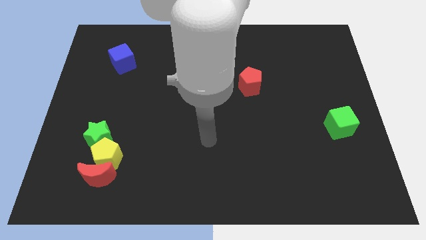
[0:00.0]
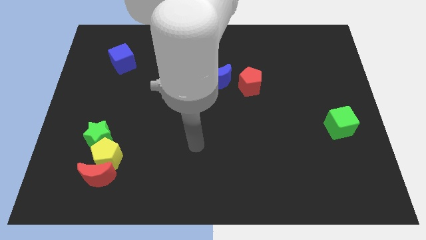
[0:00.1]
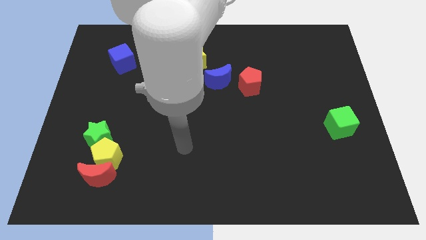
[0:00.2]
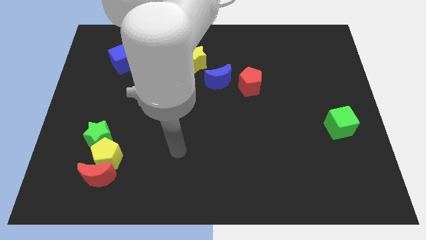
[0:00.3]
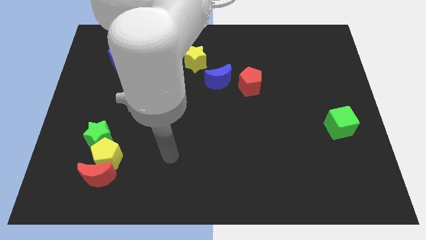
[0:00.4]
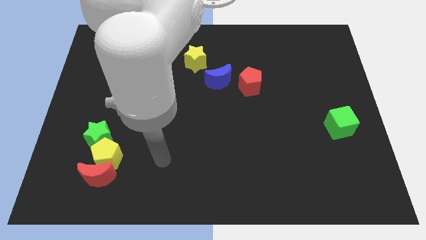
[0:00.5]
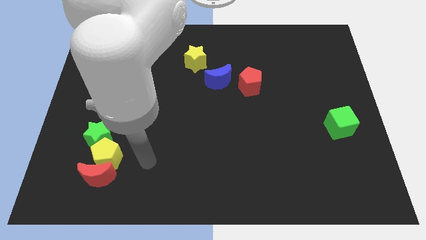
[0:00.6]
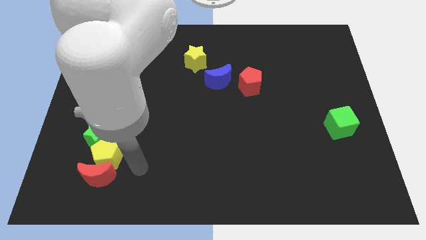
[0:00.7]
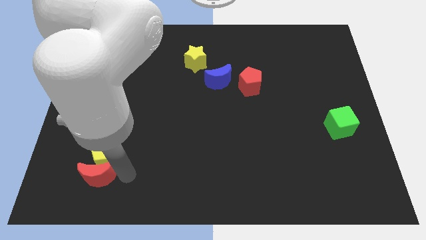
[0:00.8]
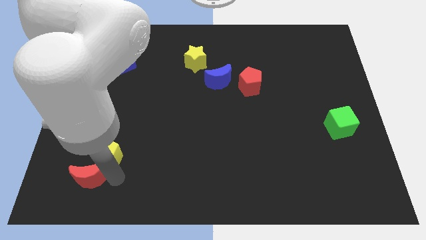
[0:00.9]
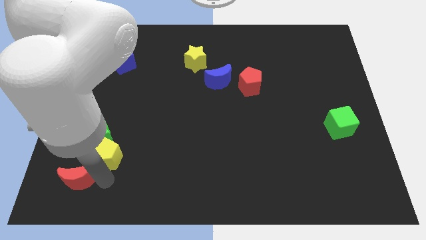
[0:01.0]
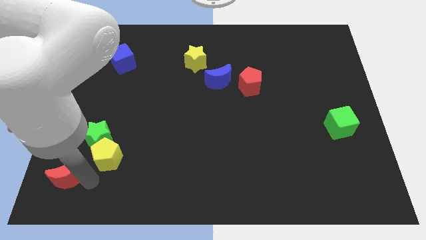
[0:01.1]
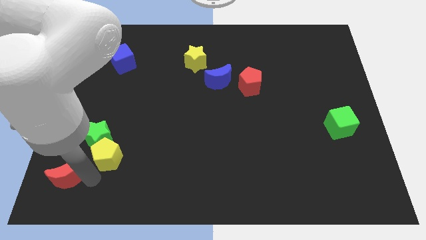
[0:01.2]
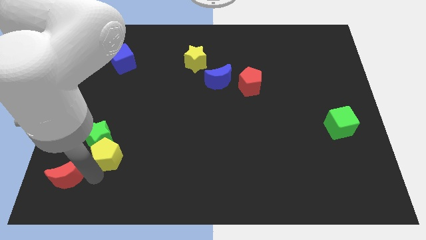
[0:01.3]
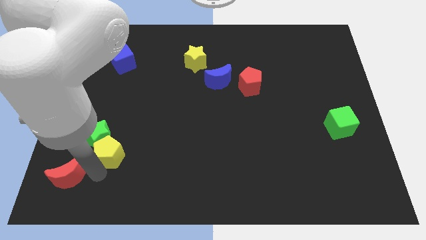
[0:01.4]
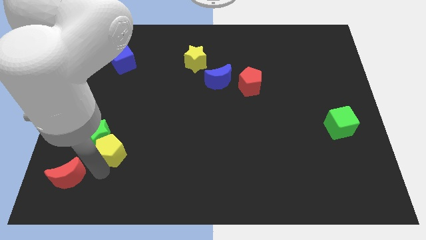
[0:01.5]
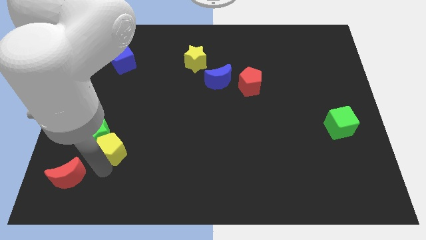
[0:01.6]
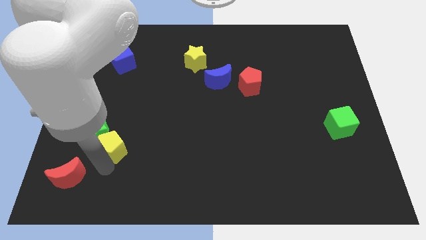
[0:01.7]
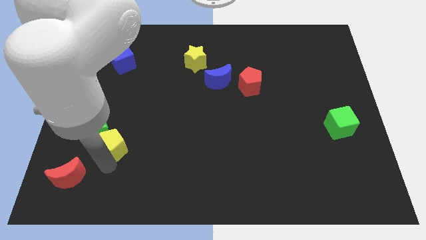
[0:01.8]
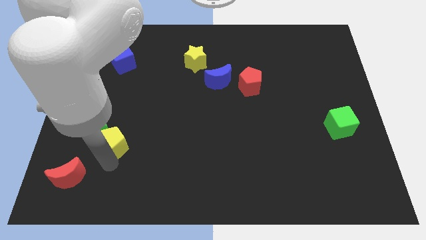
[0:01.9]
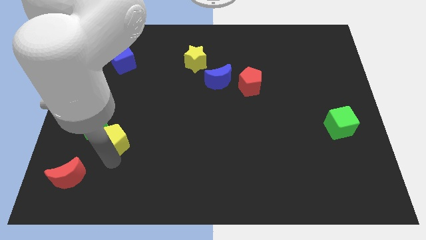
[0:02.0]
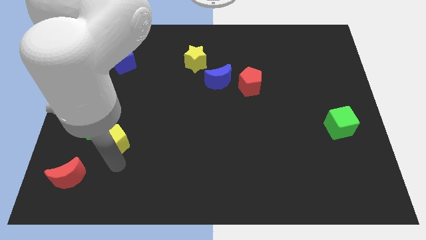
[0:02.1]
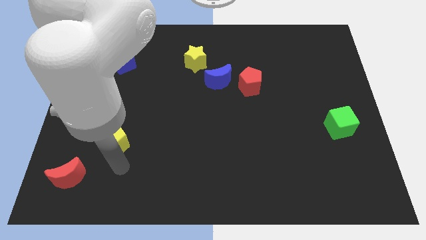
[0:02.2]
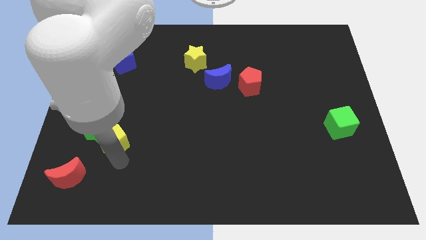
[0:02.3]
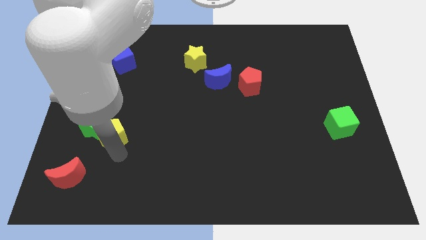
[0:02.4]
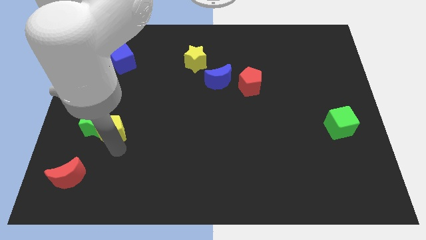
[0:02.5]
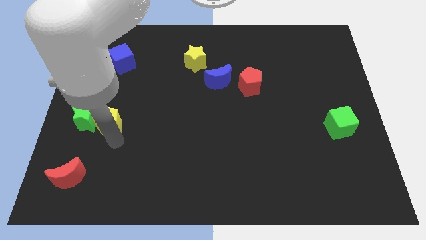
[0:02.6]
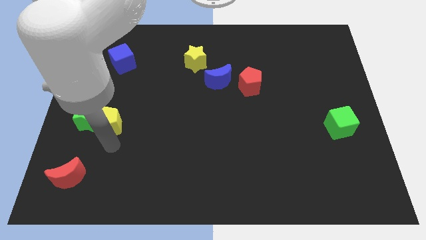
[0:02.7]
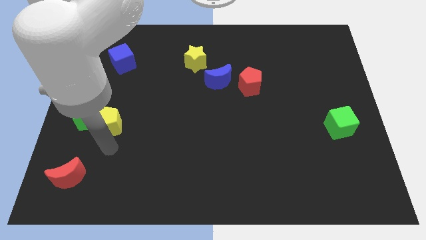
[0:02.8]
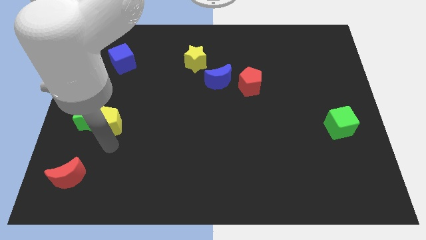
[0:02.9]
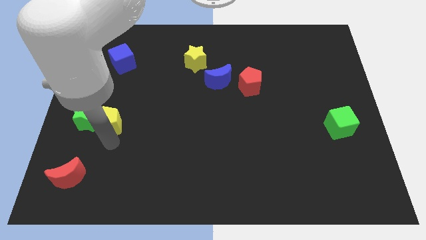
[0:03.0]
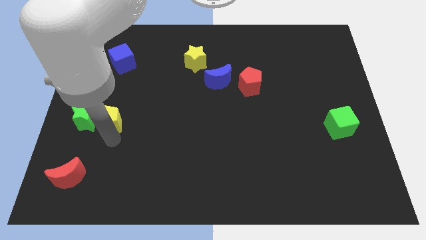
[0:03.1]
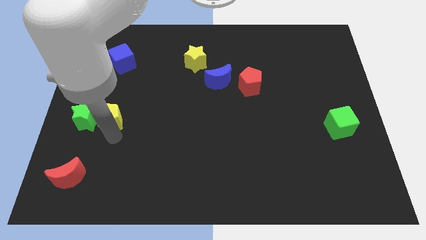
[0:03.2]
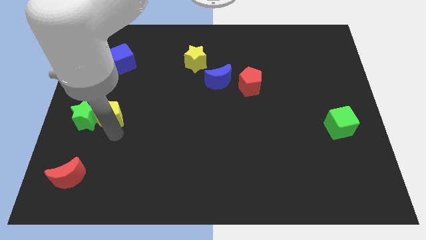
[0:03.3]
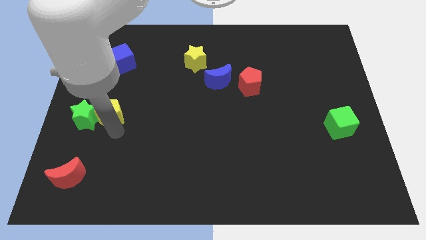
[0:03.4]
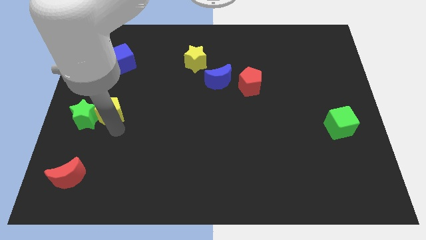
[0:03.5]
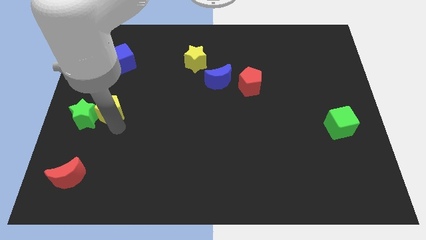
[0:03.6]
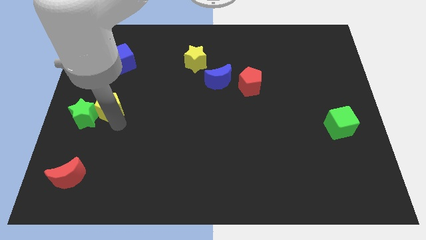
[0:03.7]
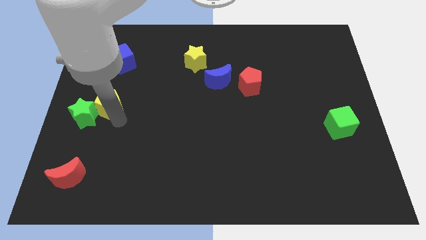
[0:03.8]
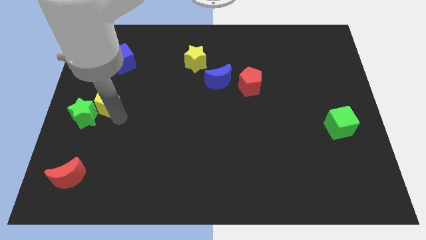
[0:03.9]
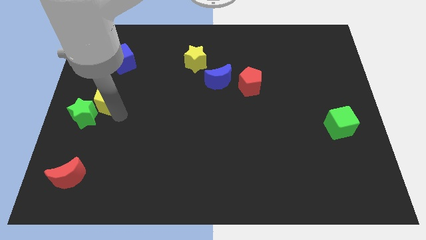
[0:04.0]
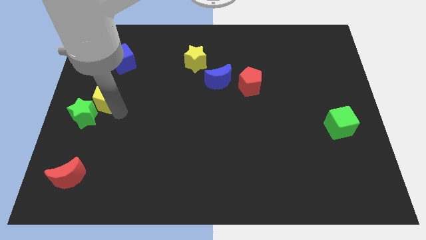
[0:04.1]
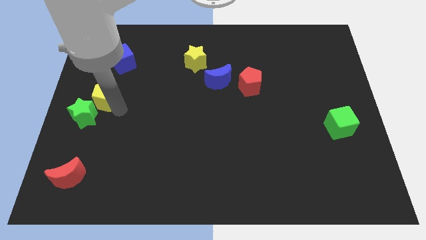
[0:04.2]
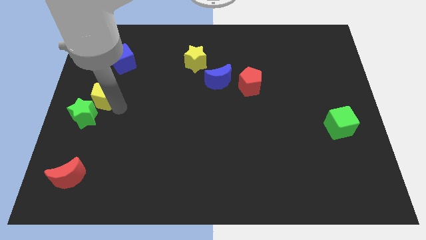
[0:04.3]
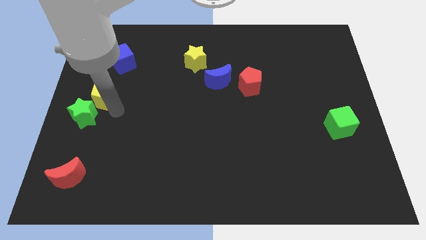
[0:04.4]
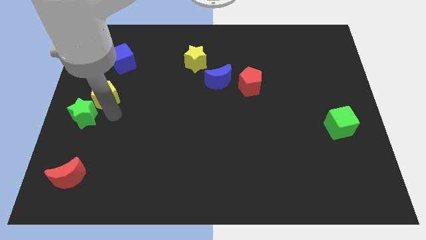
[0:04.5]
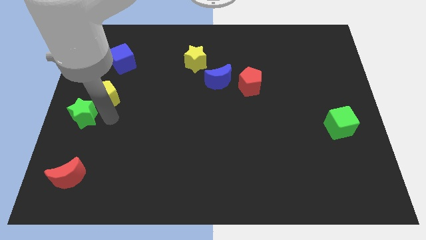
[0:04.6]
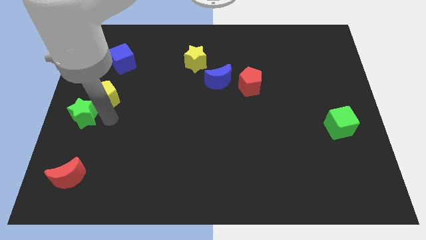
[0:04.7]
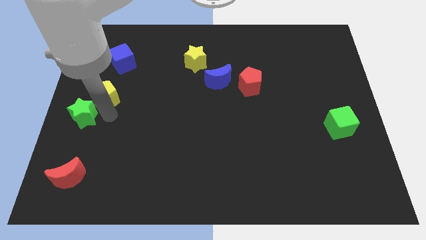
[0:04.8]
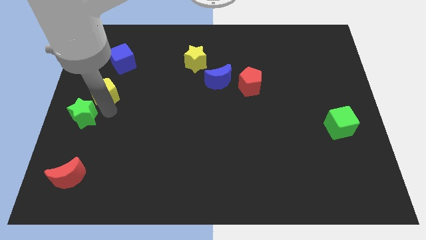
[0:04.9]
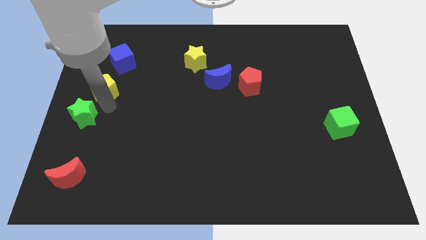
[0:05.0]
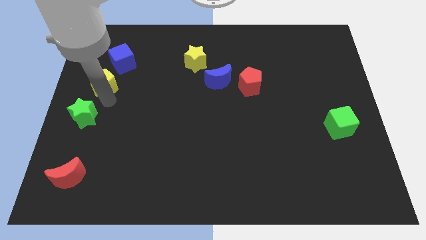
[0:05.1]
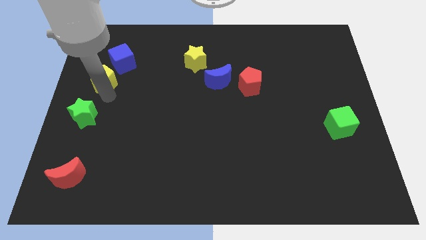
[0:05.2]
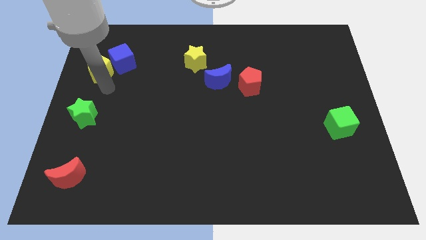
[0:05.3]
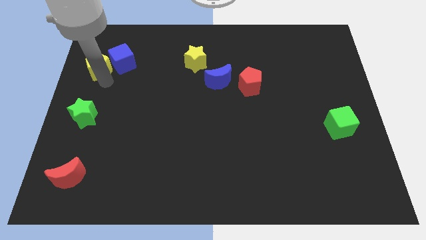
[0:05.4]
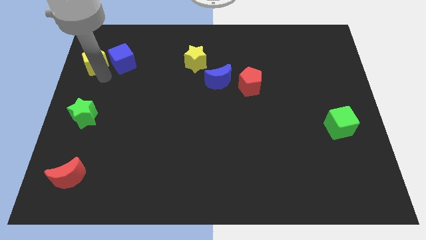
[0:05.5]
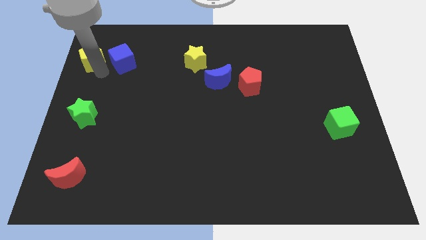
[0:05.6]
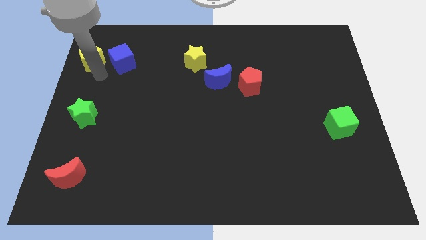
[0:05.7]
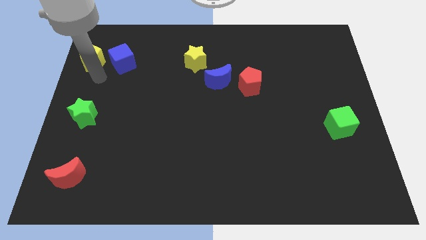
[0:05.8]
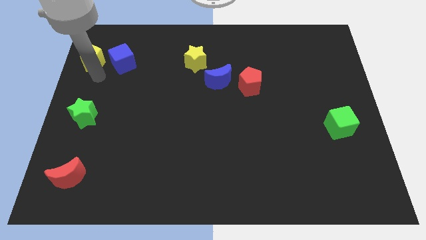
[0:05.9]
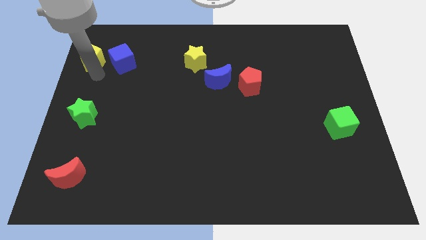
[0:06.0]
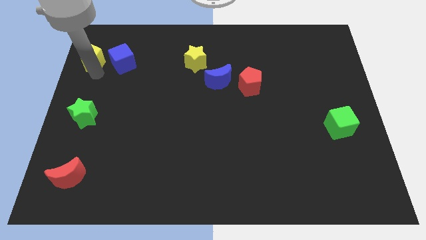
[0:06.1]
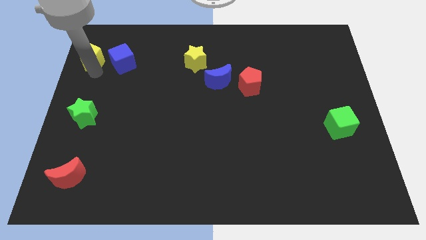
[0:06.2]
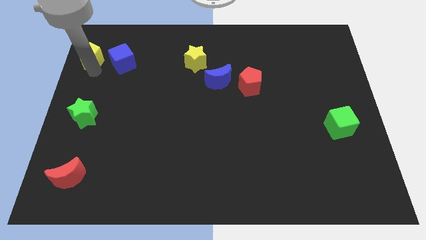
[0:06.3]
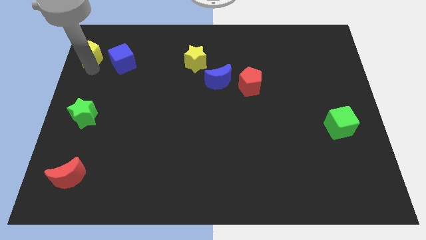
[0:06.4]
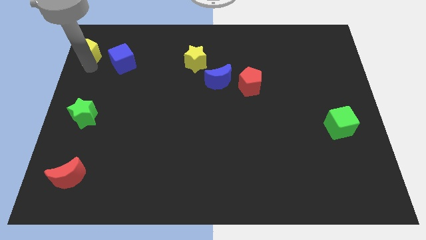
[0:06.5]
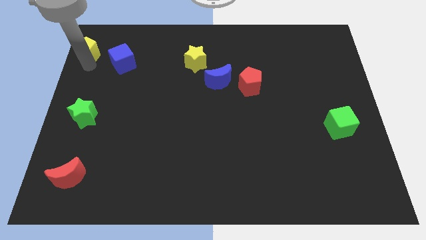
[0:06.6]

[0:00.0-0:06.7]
push the yellow pentagon to the top left of the board
